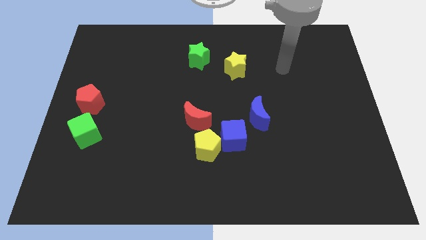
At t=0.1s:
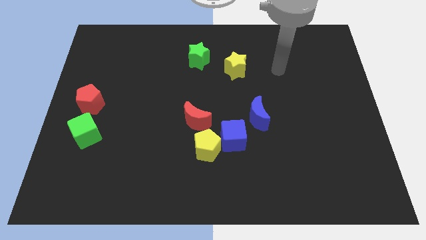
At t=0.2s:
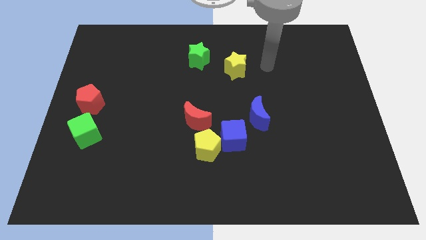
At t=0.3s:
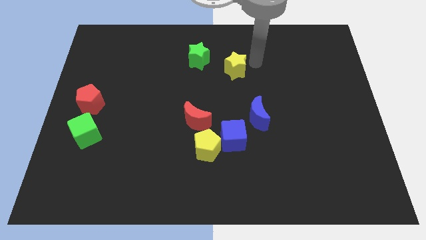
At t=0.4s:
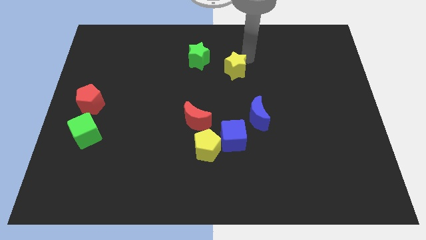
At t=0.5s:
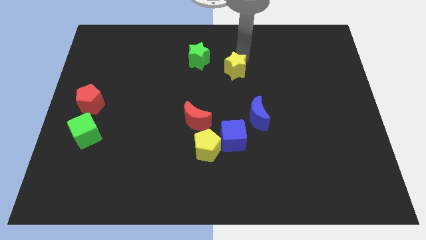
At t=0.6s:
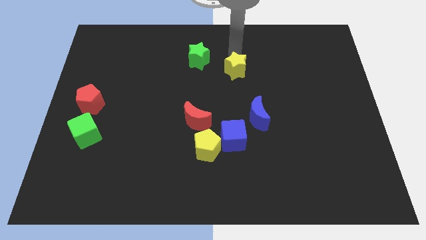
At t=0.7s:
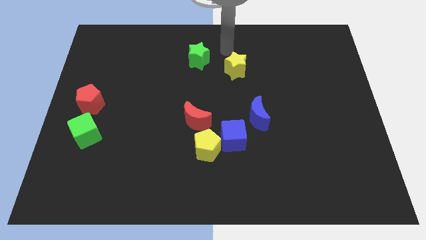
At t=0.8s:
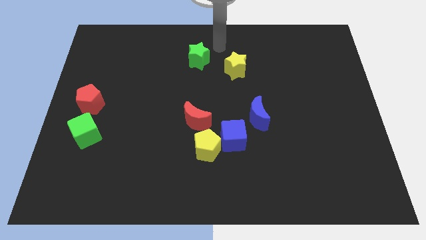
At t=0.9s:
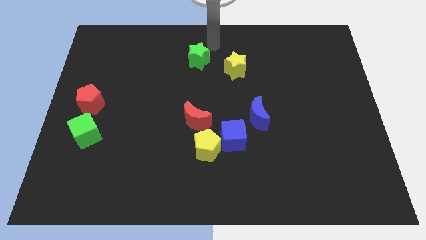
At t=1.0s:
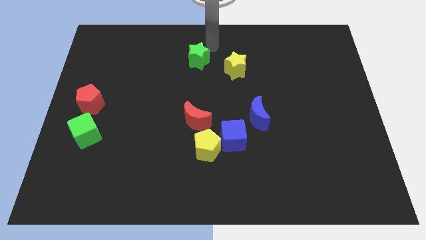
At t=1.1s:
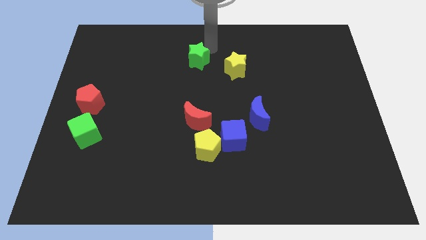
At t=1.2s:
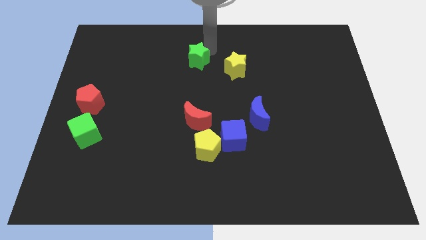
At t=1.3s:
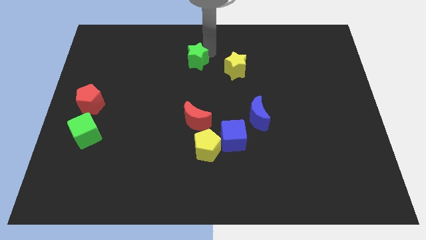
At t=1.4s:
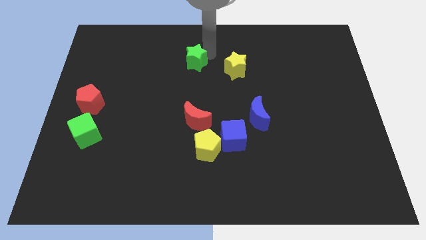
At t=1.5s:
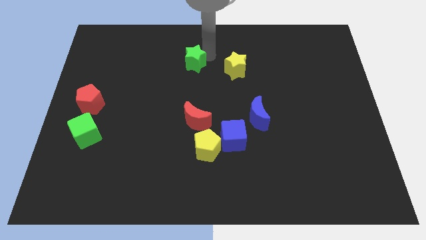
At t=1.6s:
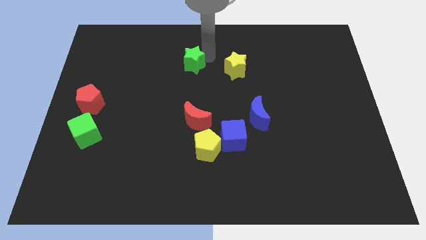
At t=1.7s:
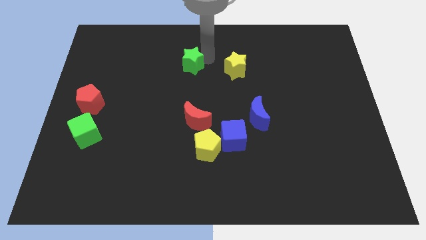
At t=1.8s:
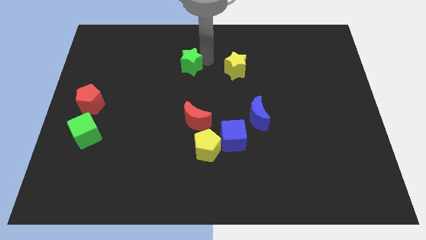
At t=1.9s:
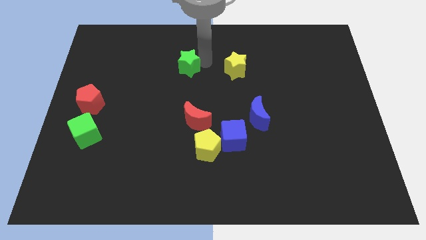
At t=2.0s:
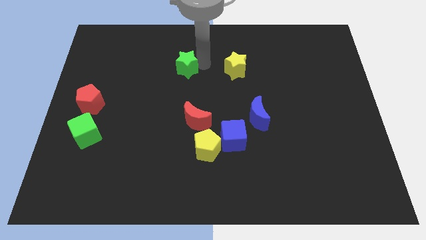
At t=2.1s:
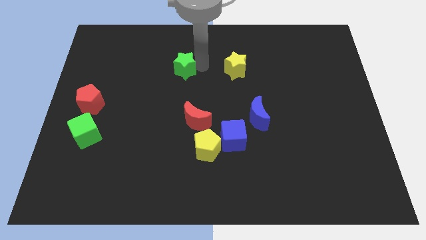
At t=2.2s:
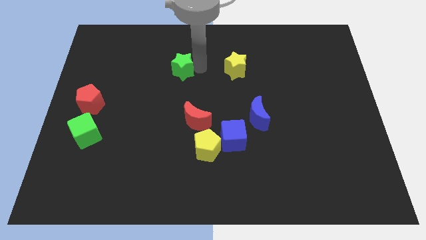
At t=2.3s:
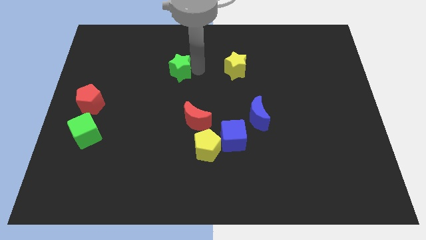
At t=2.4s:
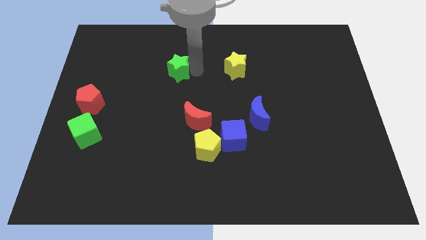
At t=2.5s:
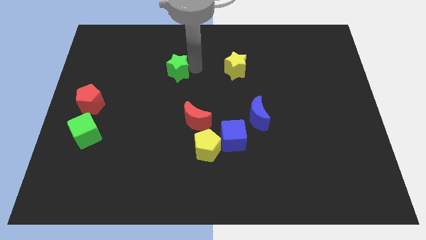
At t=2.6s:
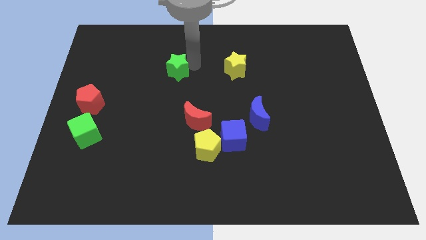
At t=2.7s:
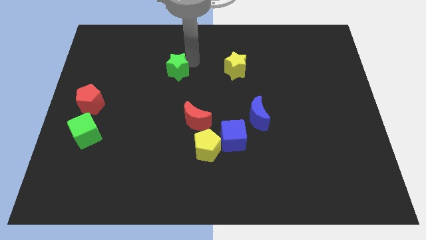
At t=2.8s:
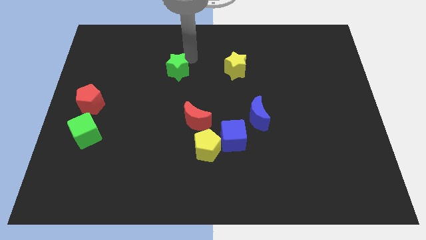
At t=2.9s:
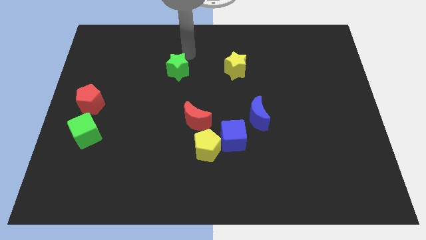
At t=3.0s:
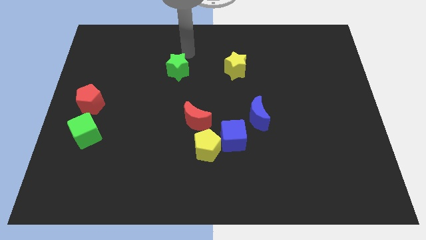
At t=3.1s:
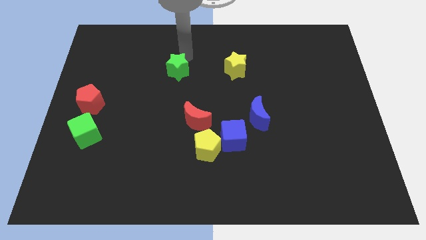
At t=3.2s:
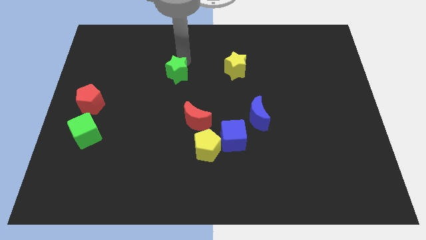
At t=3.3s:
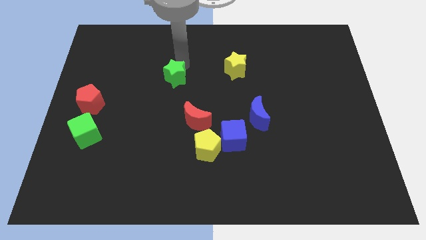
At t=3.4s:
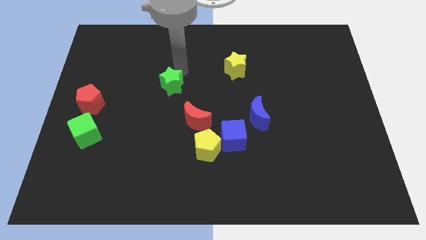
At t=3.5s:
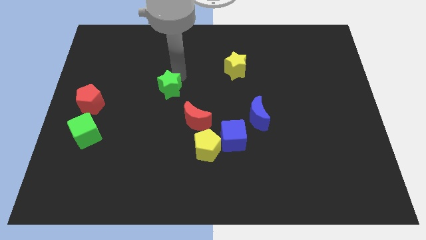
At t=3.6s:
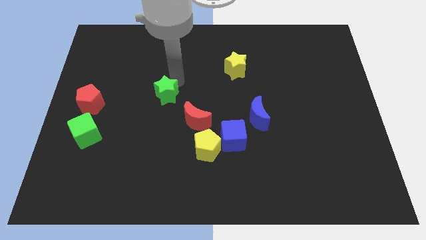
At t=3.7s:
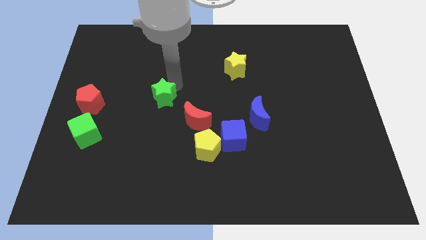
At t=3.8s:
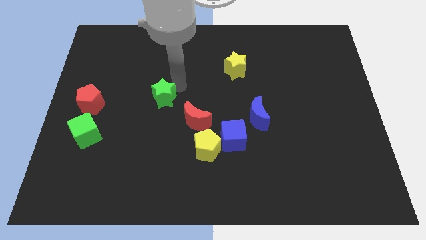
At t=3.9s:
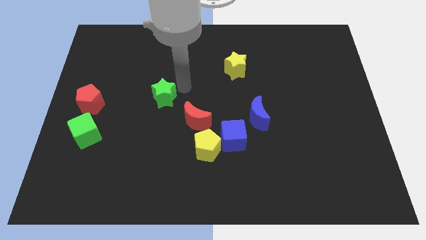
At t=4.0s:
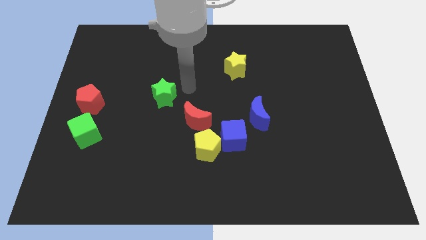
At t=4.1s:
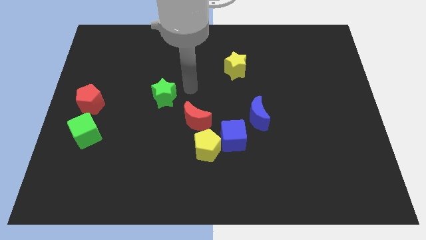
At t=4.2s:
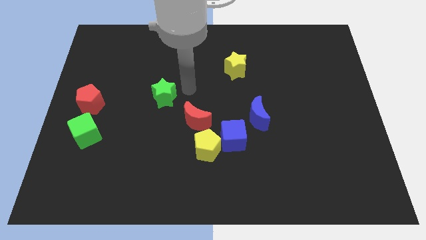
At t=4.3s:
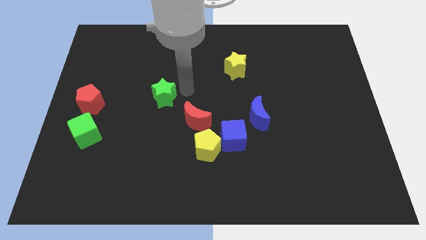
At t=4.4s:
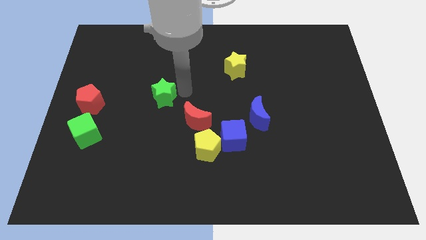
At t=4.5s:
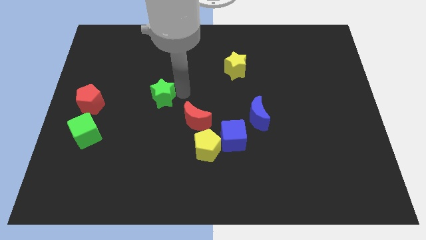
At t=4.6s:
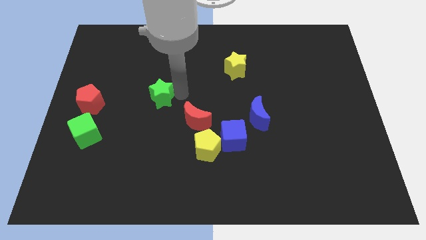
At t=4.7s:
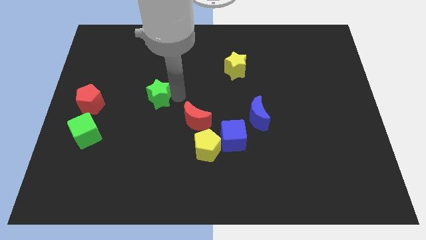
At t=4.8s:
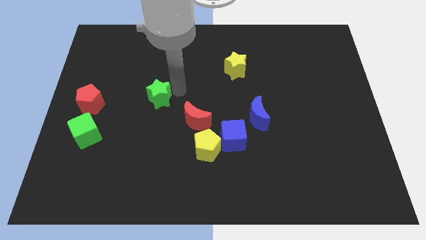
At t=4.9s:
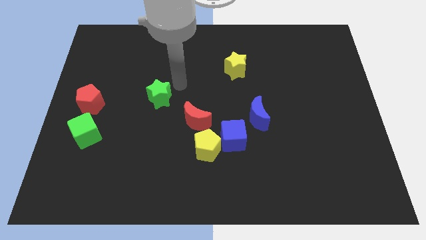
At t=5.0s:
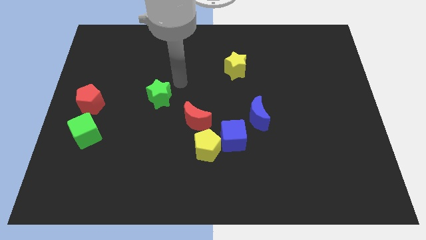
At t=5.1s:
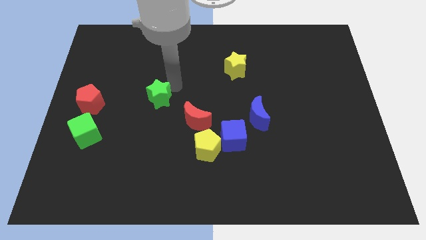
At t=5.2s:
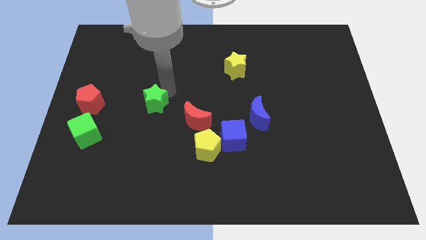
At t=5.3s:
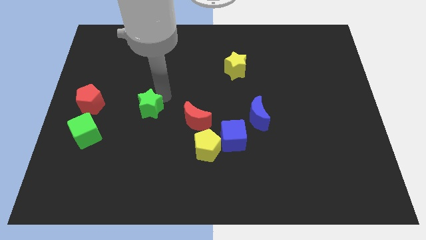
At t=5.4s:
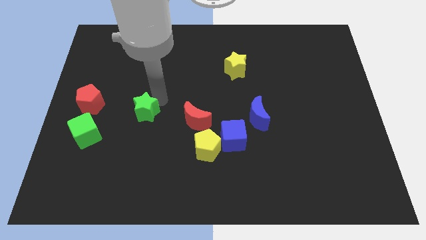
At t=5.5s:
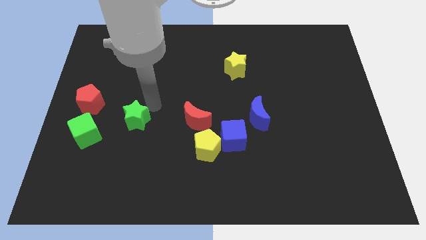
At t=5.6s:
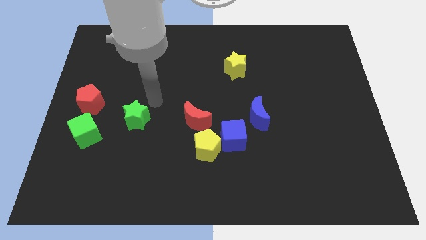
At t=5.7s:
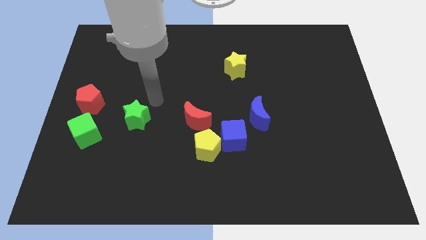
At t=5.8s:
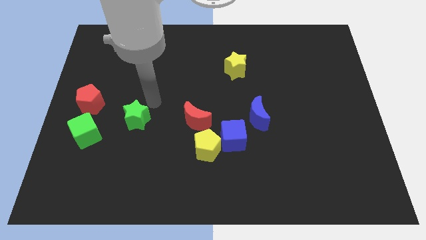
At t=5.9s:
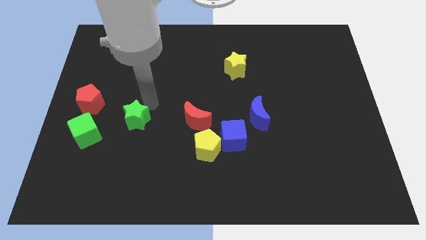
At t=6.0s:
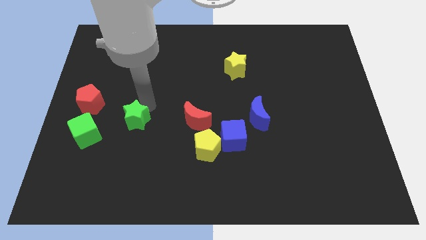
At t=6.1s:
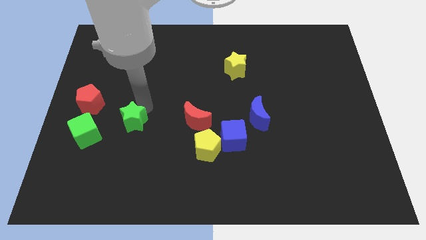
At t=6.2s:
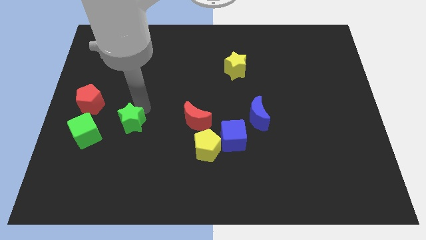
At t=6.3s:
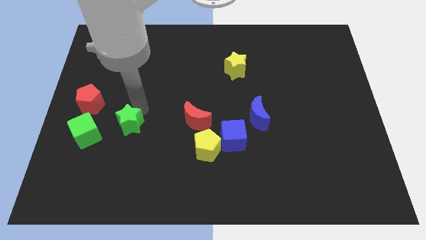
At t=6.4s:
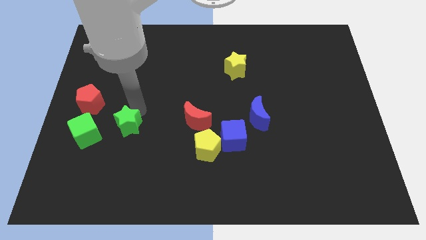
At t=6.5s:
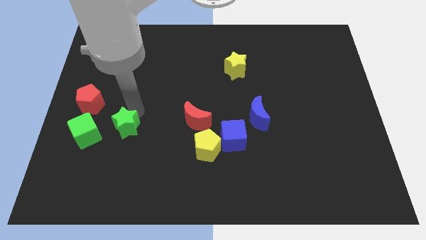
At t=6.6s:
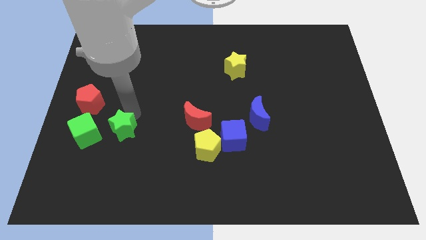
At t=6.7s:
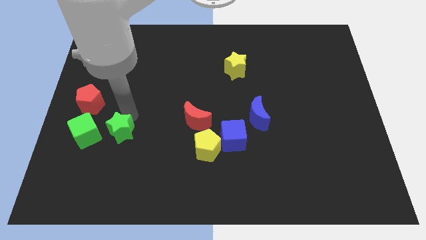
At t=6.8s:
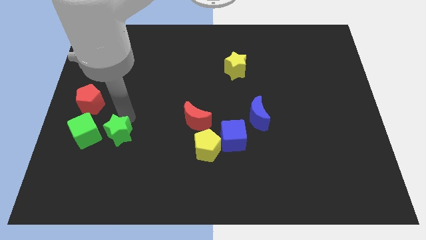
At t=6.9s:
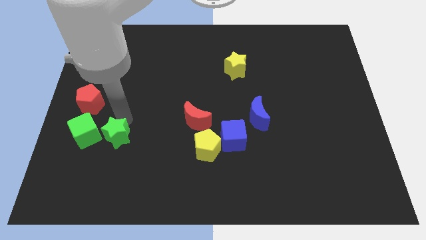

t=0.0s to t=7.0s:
put the green star to the bottom right of the green cube

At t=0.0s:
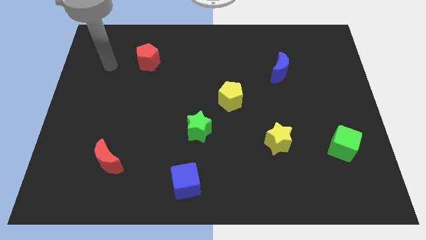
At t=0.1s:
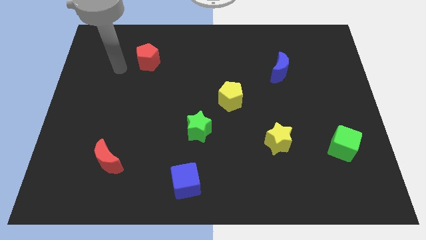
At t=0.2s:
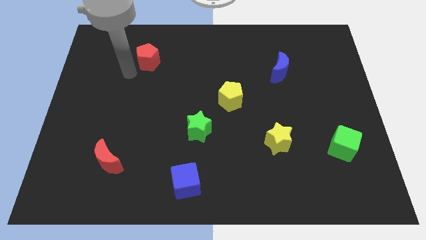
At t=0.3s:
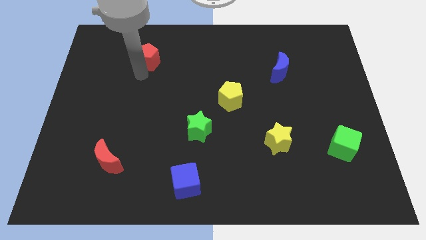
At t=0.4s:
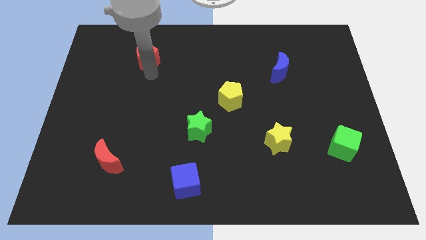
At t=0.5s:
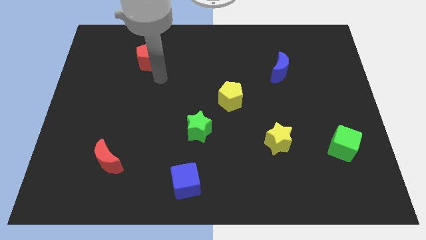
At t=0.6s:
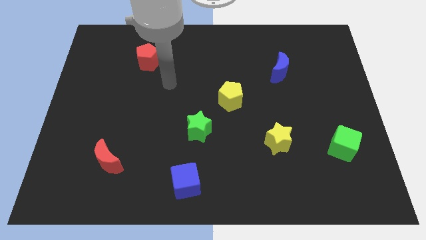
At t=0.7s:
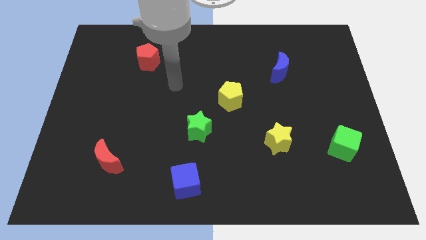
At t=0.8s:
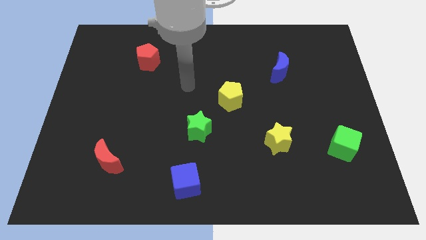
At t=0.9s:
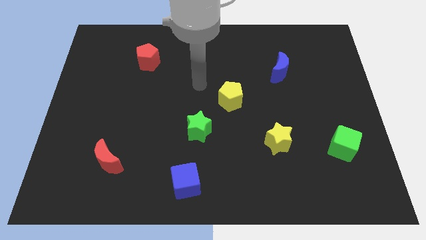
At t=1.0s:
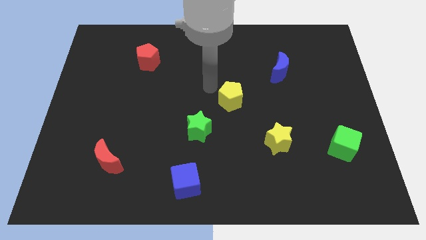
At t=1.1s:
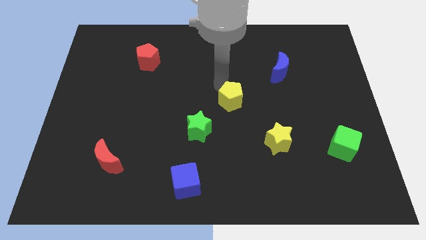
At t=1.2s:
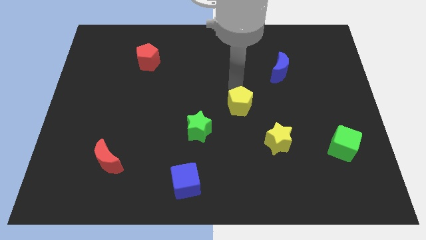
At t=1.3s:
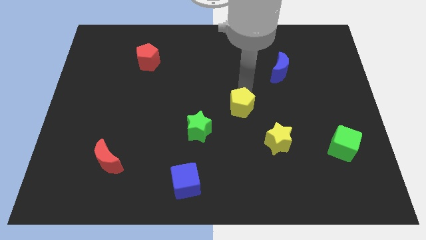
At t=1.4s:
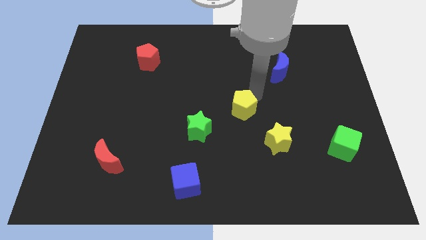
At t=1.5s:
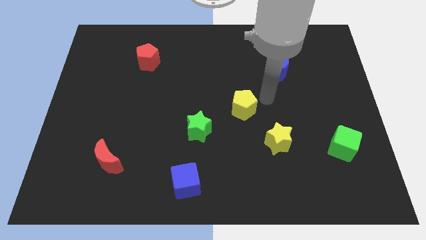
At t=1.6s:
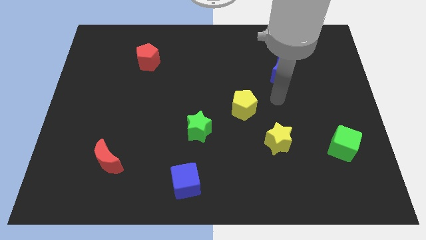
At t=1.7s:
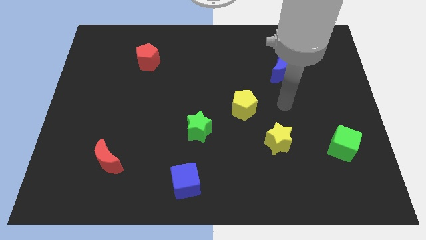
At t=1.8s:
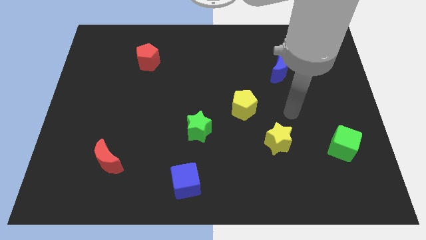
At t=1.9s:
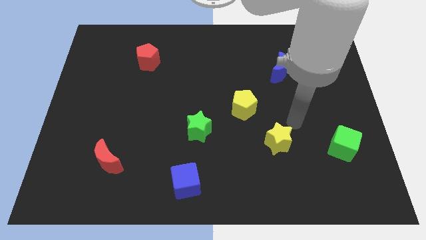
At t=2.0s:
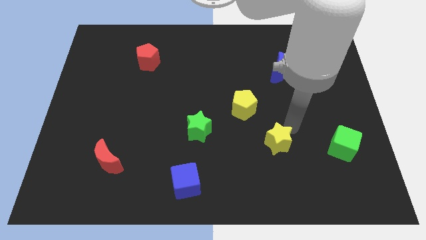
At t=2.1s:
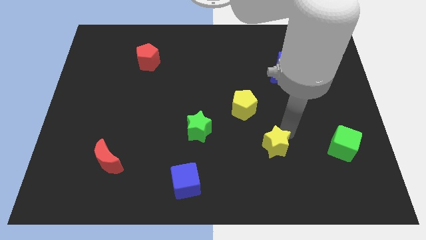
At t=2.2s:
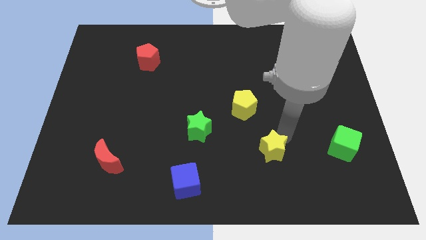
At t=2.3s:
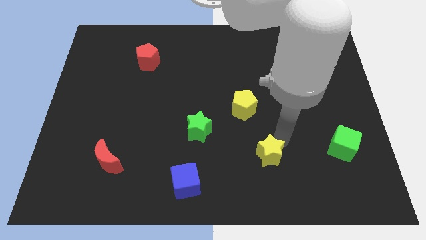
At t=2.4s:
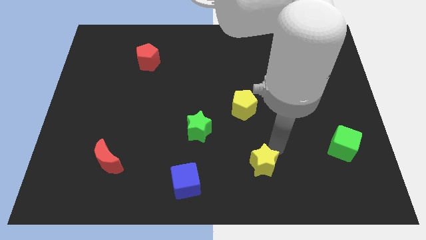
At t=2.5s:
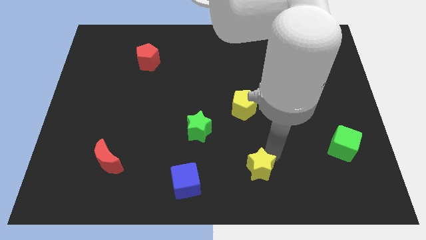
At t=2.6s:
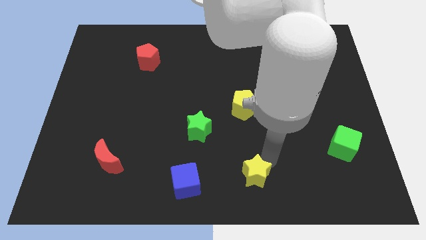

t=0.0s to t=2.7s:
slide the yellow star just right of the blue cube
